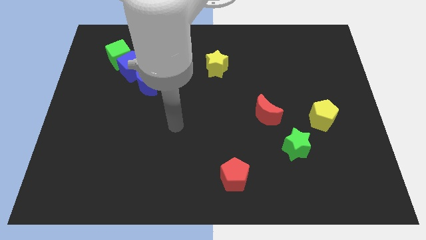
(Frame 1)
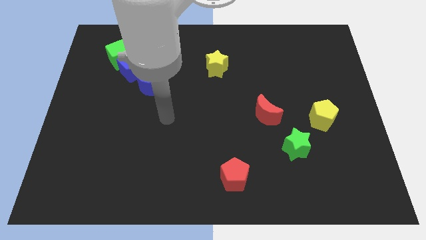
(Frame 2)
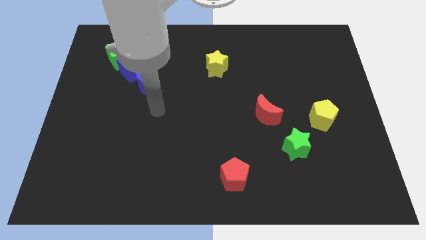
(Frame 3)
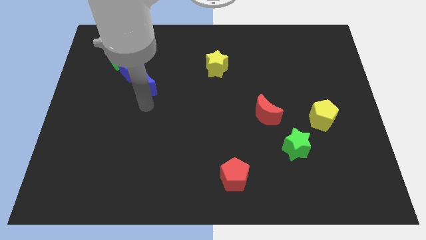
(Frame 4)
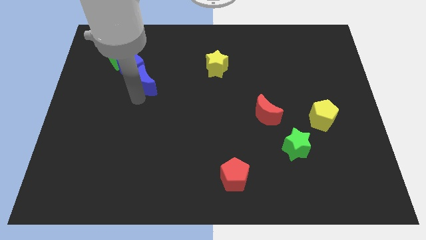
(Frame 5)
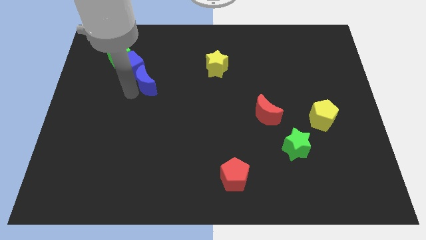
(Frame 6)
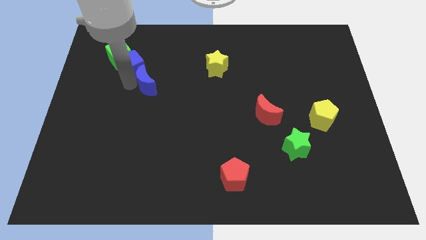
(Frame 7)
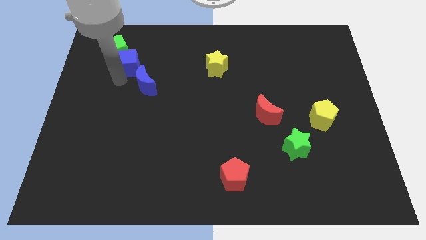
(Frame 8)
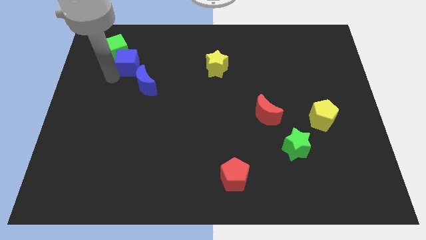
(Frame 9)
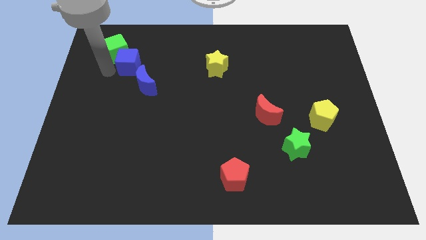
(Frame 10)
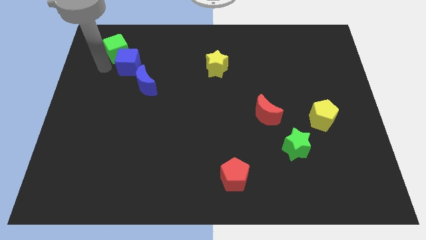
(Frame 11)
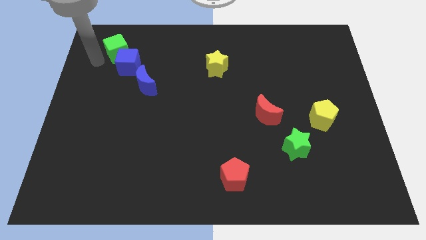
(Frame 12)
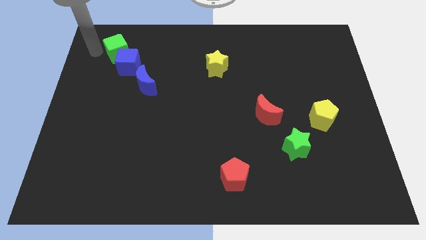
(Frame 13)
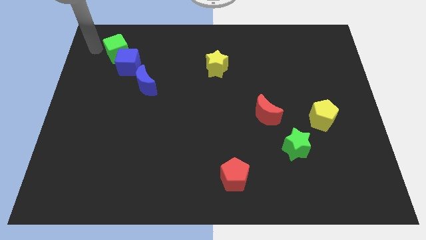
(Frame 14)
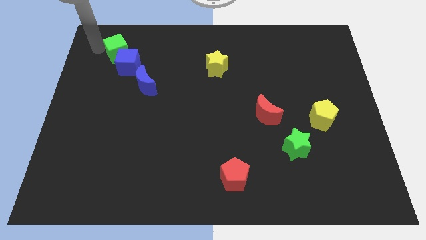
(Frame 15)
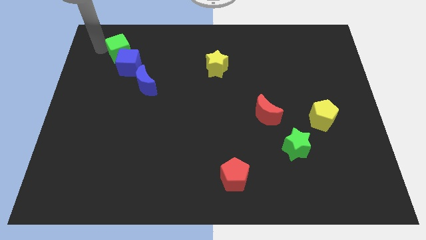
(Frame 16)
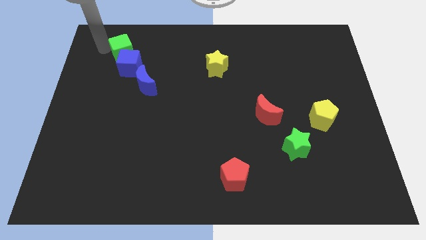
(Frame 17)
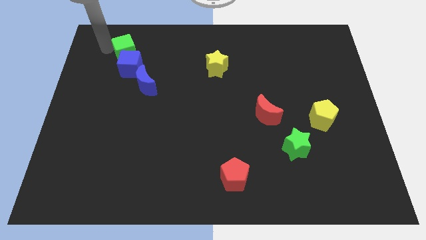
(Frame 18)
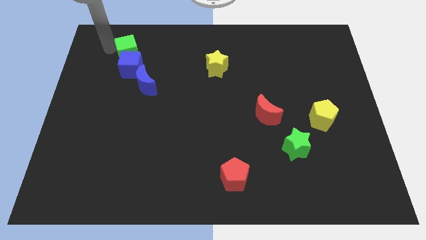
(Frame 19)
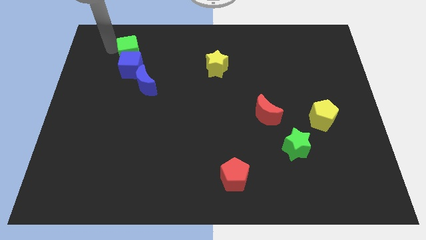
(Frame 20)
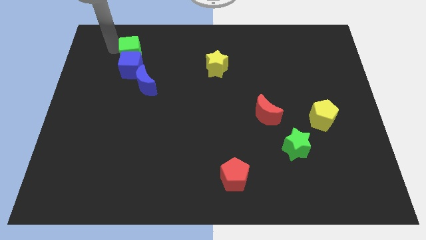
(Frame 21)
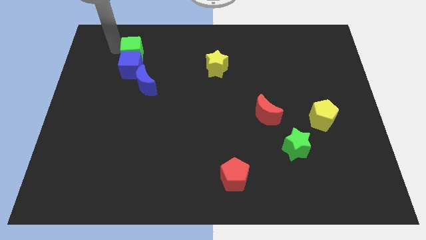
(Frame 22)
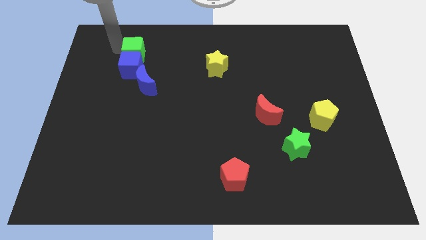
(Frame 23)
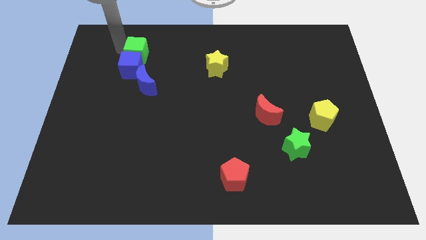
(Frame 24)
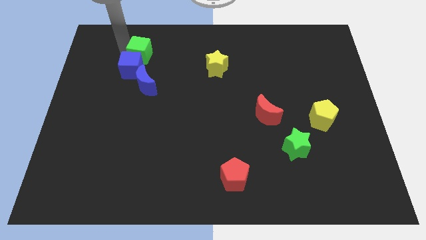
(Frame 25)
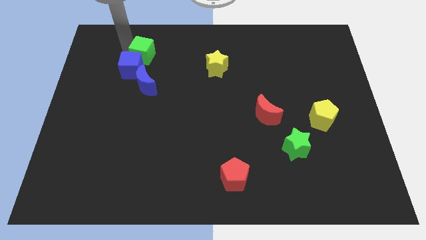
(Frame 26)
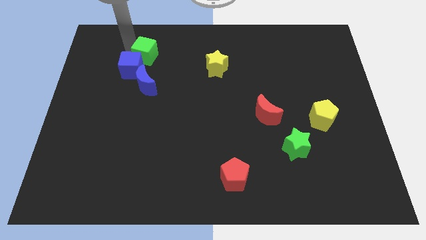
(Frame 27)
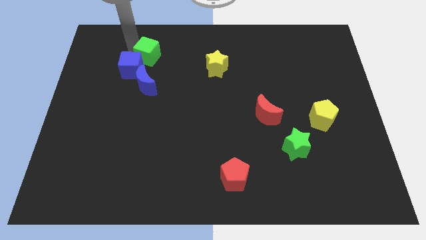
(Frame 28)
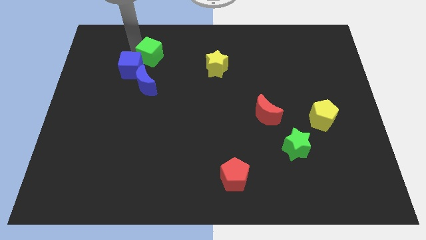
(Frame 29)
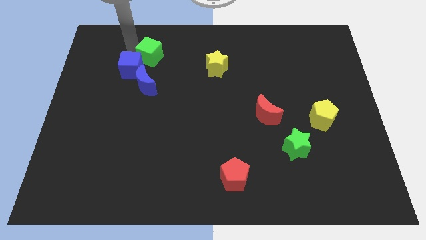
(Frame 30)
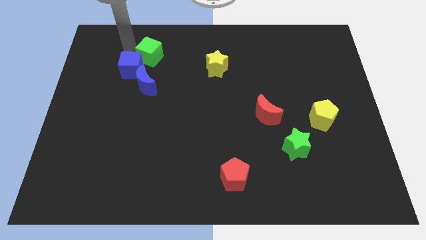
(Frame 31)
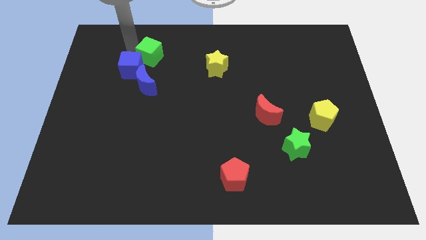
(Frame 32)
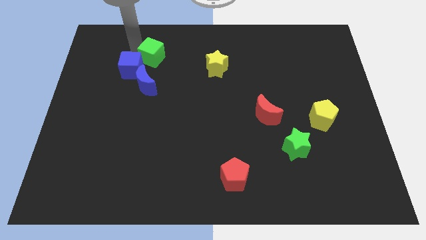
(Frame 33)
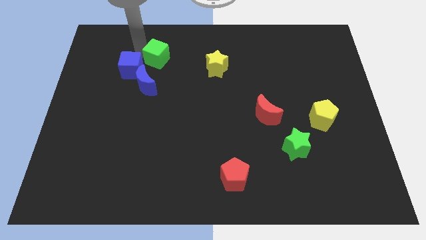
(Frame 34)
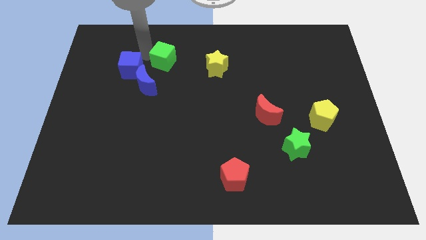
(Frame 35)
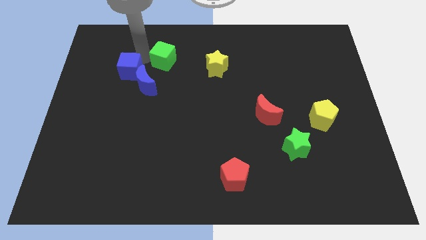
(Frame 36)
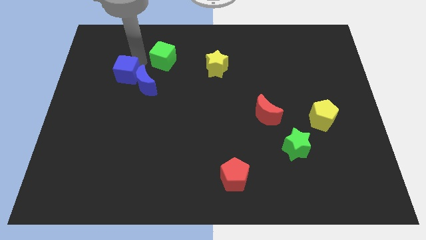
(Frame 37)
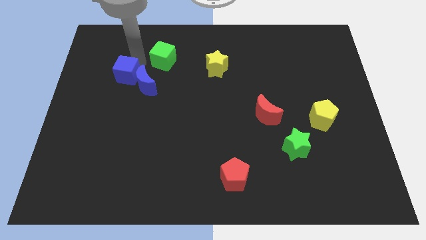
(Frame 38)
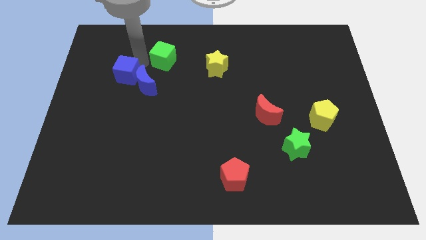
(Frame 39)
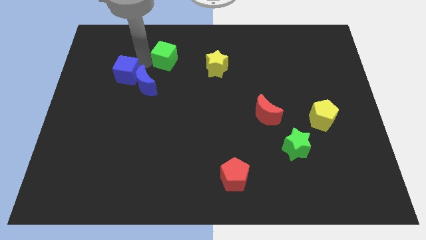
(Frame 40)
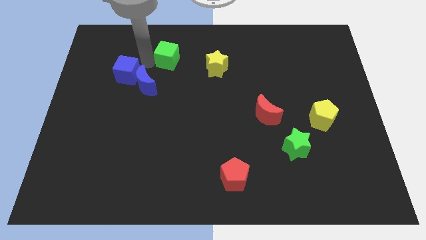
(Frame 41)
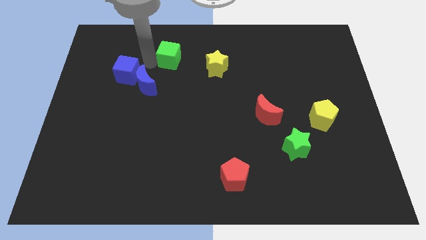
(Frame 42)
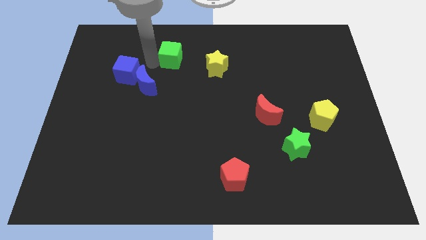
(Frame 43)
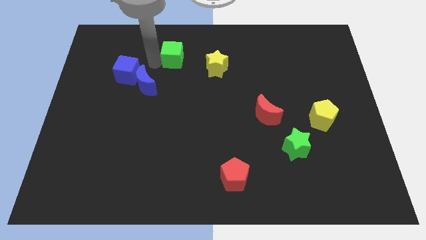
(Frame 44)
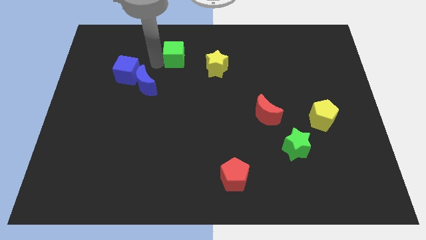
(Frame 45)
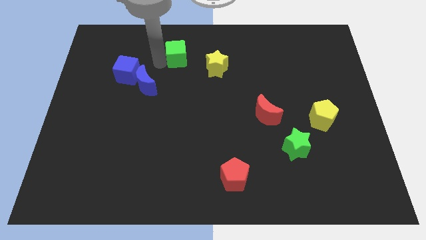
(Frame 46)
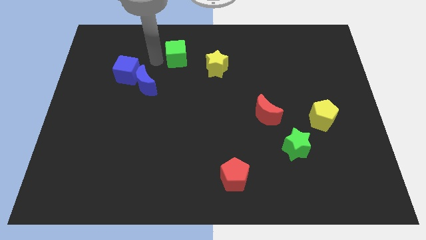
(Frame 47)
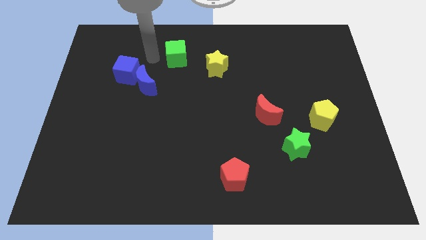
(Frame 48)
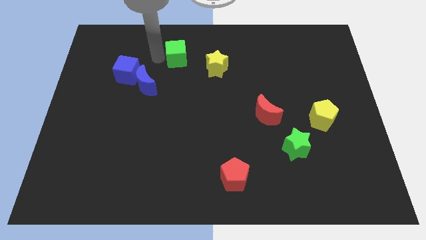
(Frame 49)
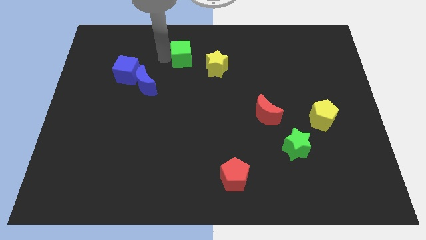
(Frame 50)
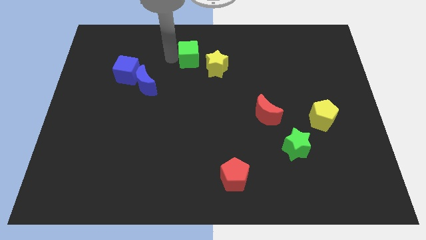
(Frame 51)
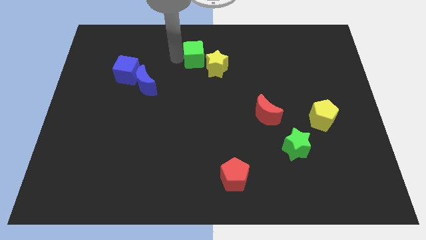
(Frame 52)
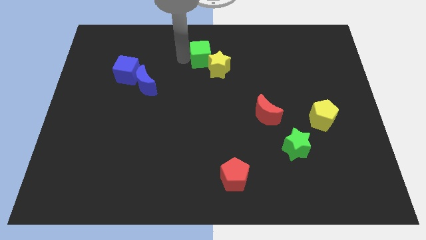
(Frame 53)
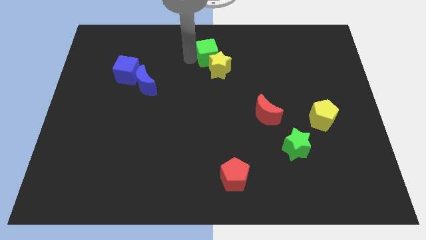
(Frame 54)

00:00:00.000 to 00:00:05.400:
put the green cube to the top side

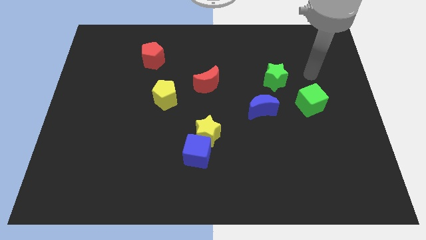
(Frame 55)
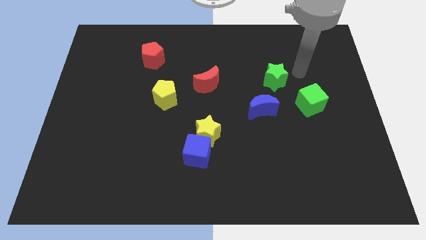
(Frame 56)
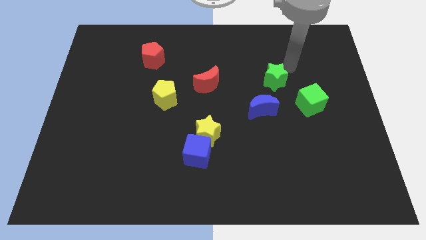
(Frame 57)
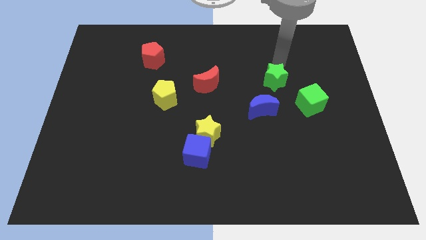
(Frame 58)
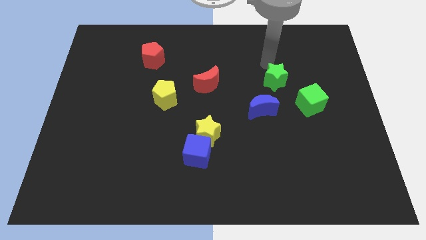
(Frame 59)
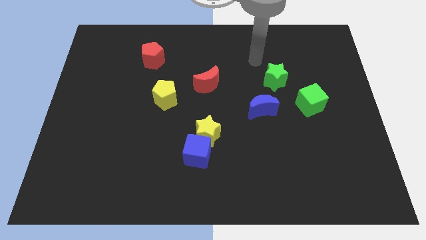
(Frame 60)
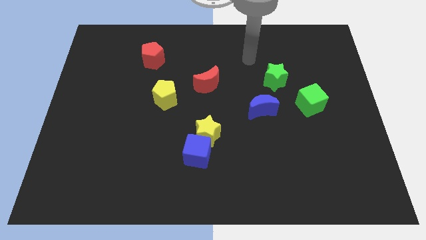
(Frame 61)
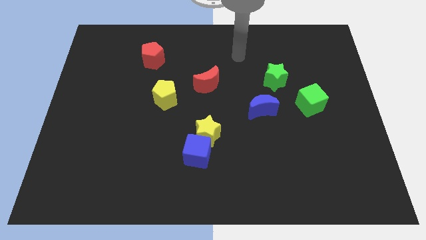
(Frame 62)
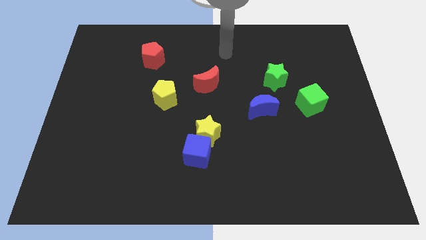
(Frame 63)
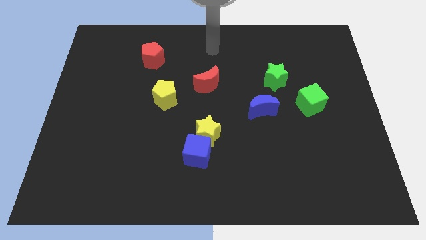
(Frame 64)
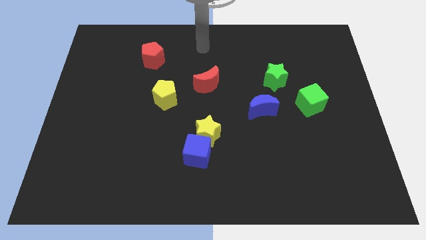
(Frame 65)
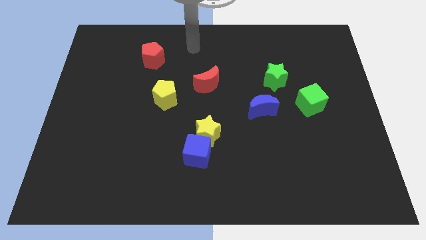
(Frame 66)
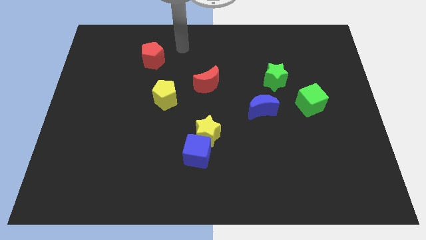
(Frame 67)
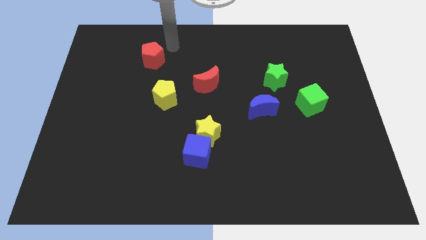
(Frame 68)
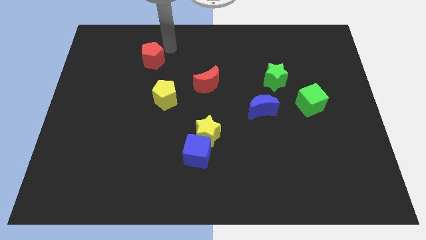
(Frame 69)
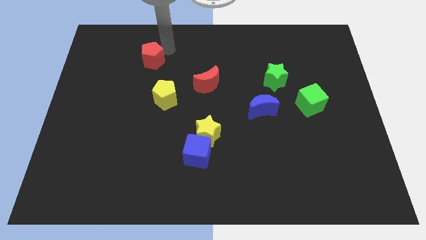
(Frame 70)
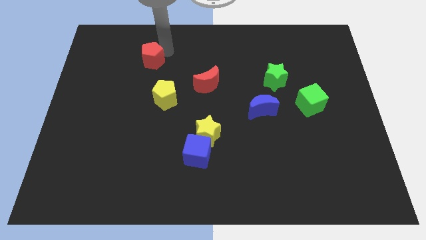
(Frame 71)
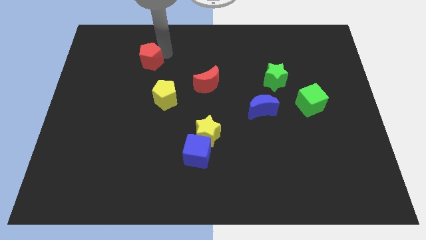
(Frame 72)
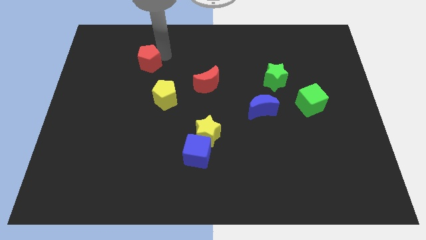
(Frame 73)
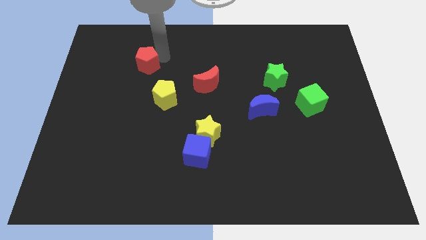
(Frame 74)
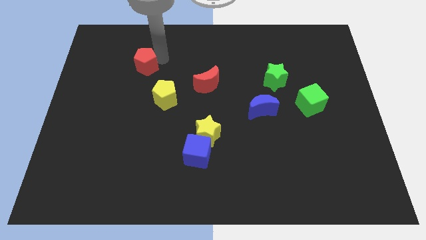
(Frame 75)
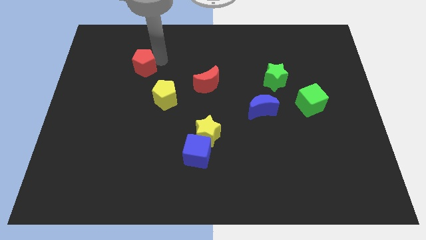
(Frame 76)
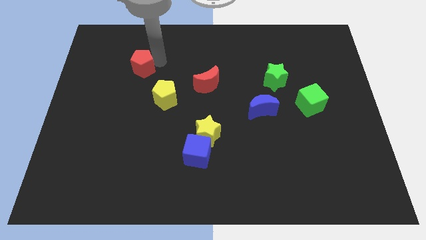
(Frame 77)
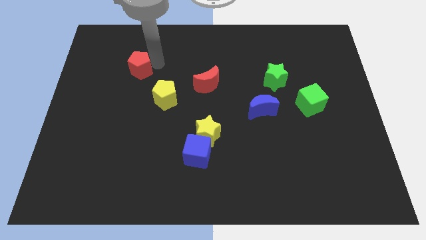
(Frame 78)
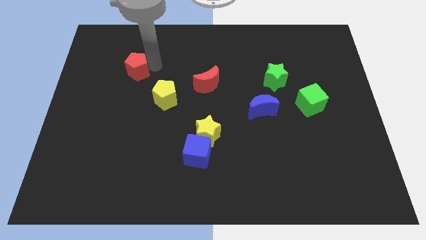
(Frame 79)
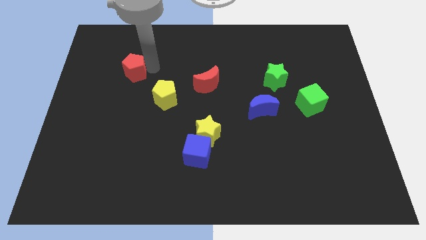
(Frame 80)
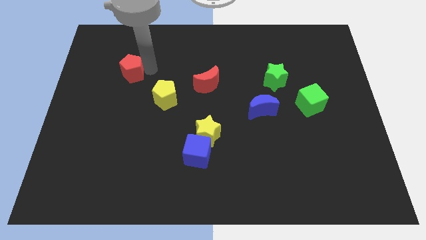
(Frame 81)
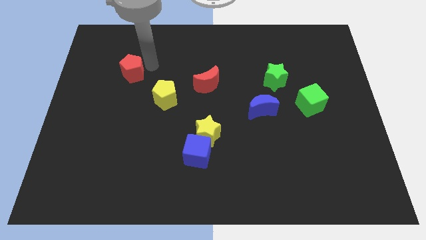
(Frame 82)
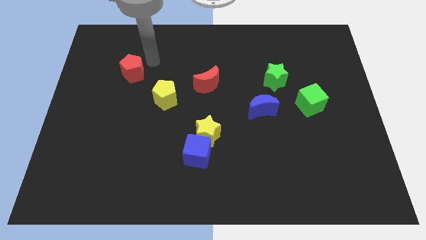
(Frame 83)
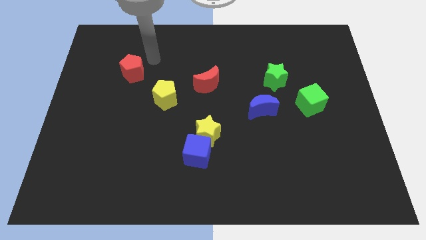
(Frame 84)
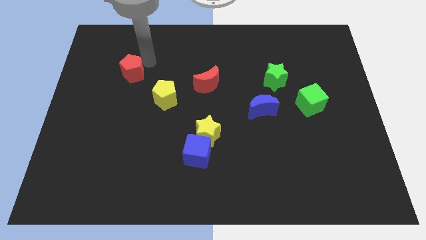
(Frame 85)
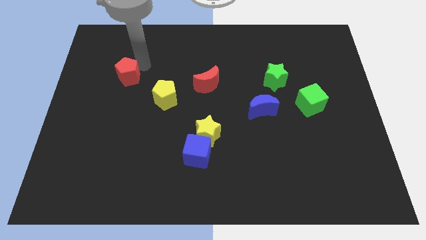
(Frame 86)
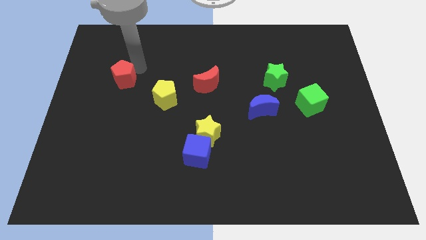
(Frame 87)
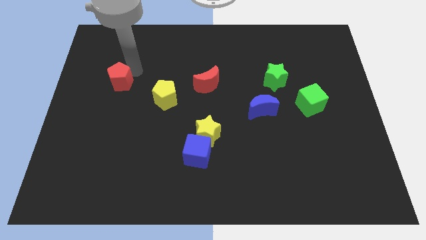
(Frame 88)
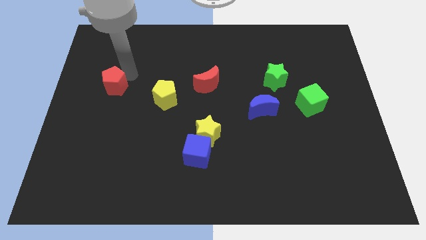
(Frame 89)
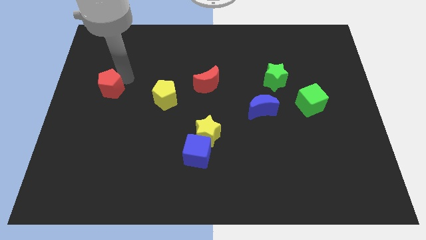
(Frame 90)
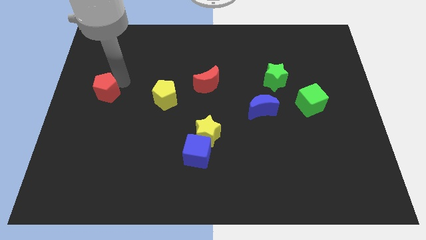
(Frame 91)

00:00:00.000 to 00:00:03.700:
slide the red pentagon to the left side of the board
